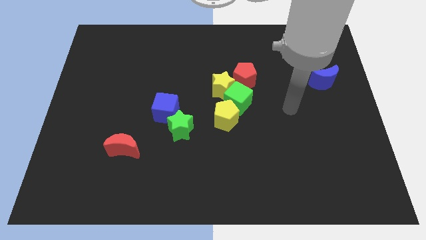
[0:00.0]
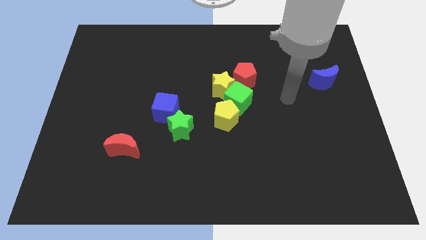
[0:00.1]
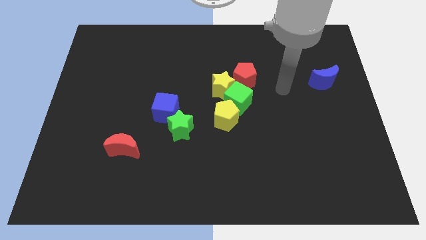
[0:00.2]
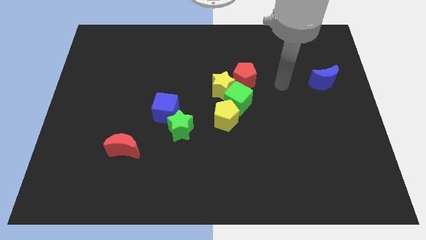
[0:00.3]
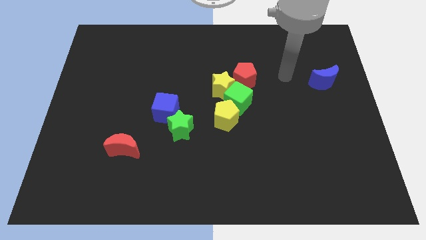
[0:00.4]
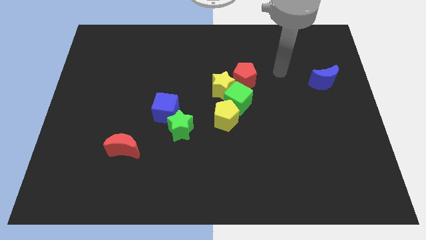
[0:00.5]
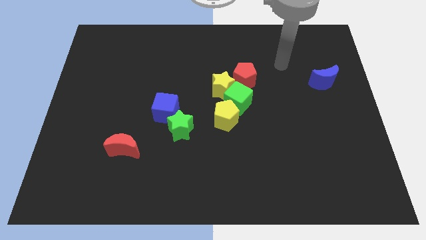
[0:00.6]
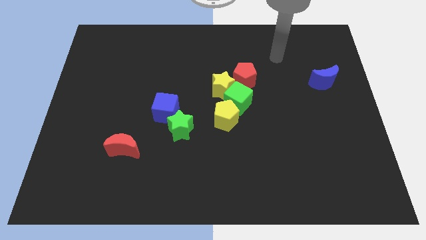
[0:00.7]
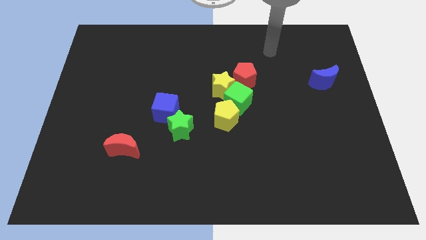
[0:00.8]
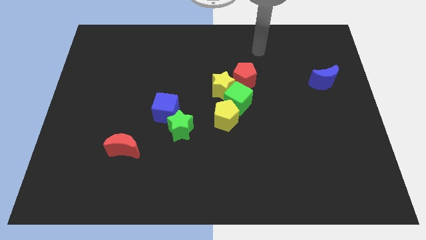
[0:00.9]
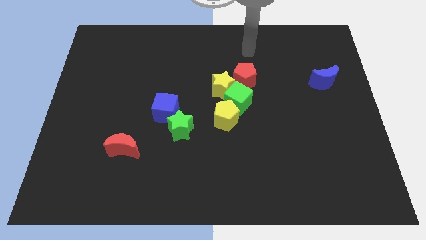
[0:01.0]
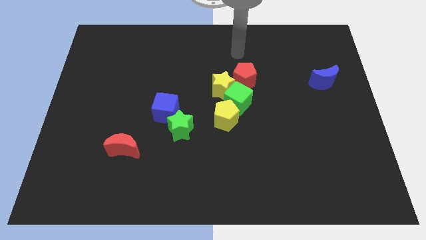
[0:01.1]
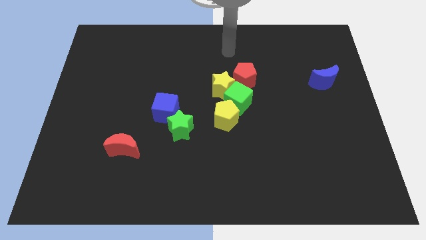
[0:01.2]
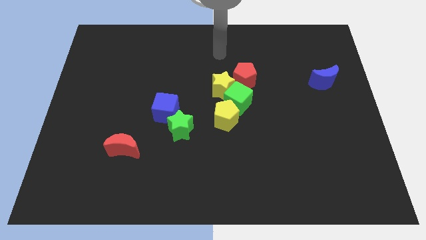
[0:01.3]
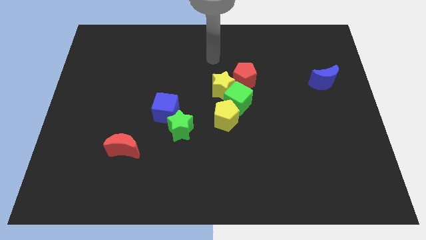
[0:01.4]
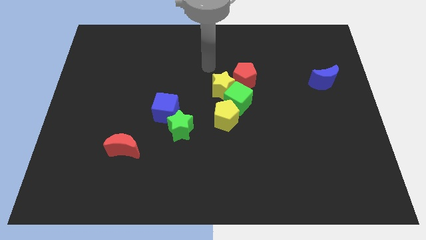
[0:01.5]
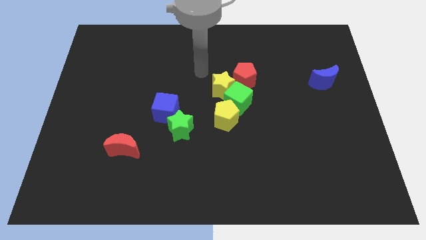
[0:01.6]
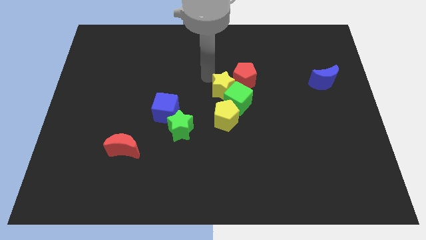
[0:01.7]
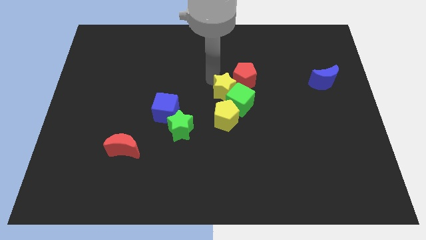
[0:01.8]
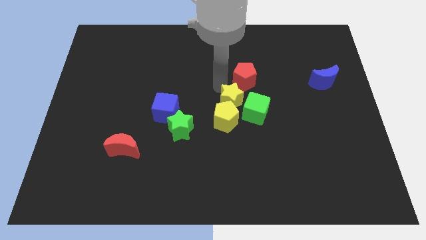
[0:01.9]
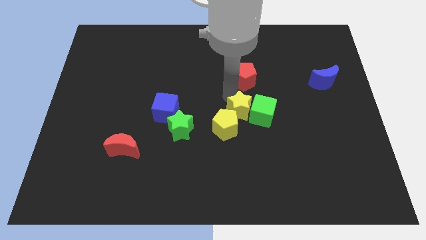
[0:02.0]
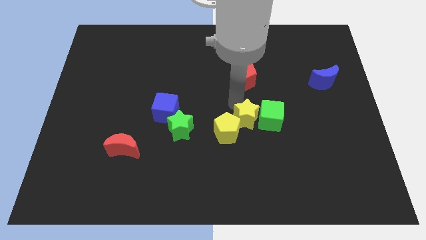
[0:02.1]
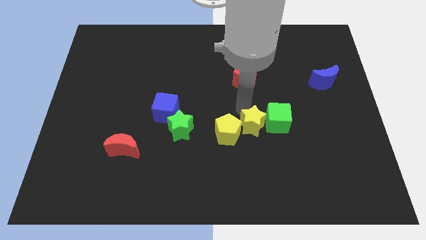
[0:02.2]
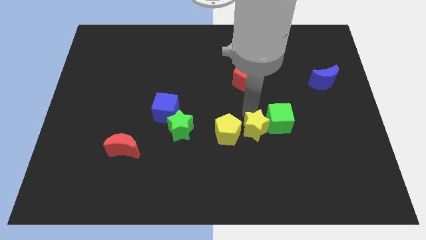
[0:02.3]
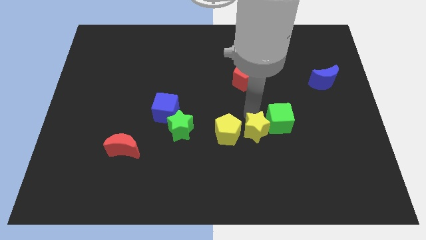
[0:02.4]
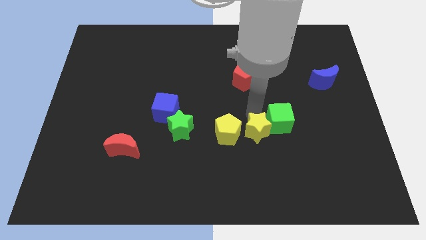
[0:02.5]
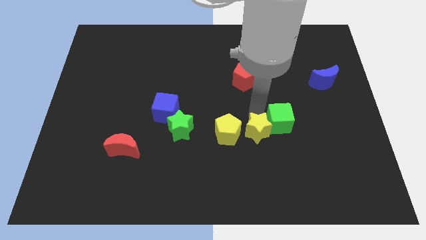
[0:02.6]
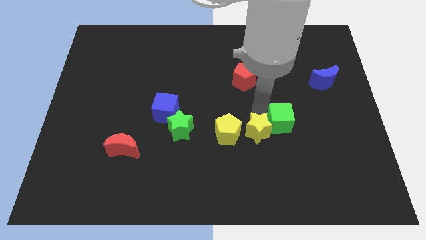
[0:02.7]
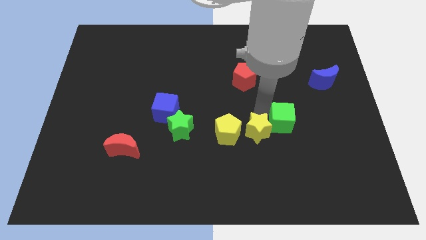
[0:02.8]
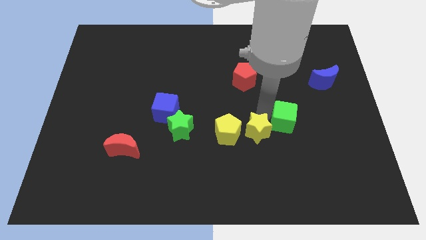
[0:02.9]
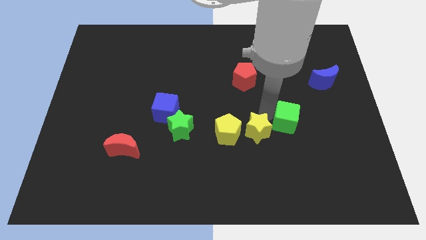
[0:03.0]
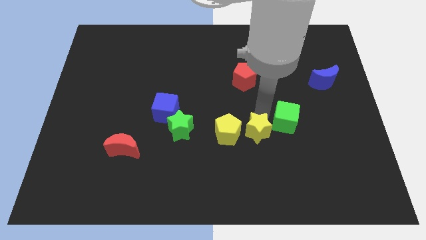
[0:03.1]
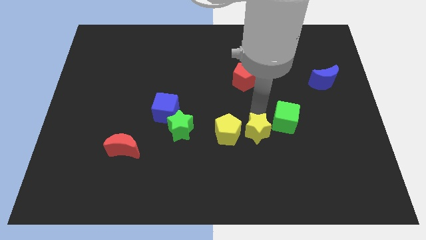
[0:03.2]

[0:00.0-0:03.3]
separate the green cube from the yellow star, yellow pentagon, and red pentagon

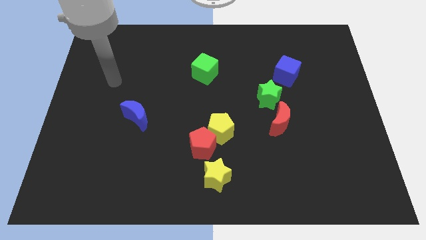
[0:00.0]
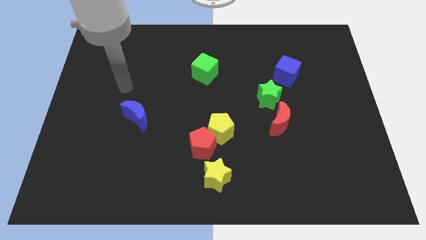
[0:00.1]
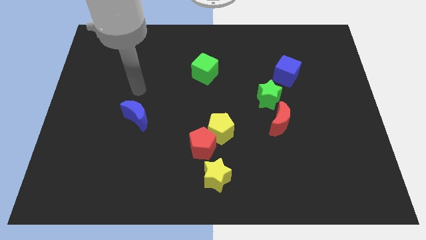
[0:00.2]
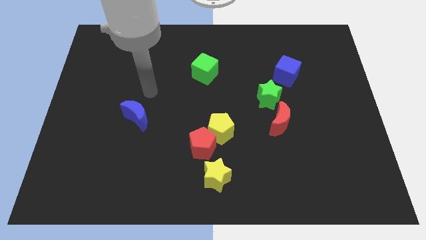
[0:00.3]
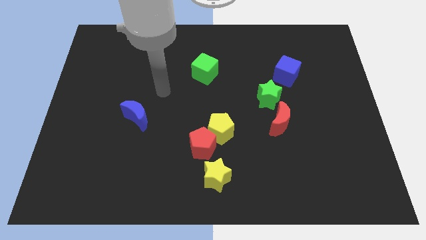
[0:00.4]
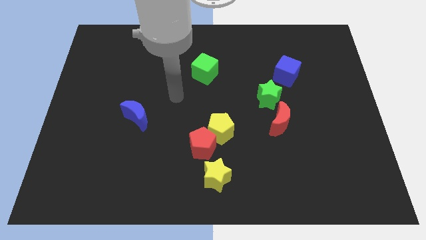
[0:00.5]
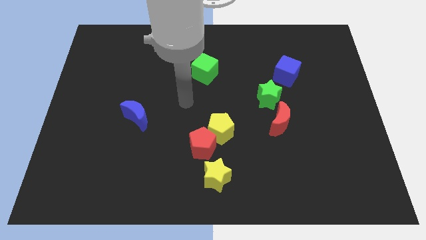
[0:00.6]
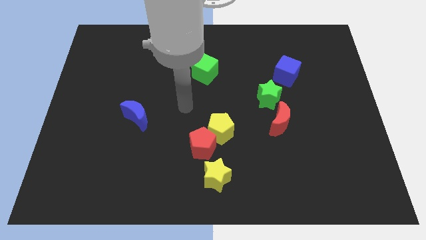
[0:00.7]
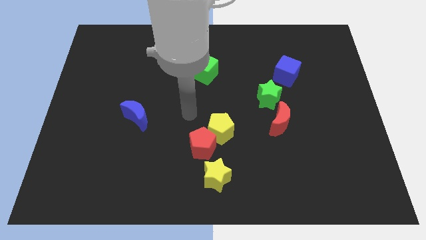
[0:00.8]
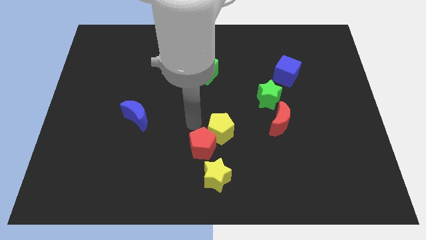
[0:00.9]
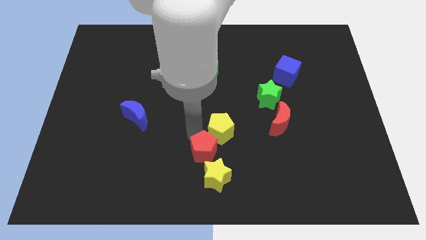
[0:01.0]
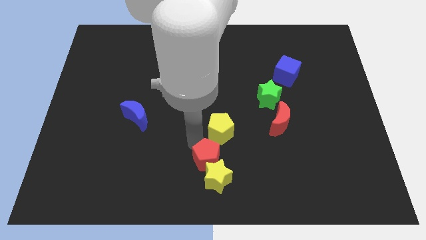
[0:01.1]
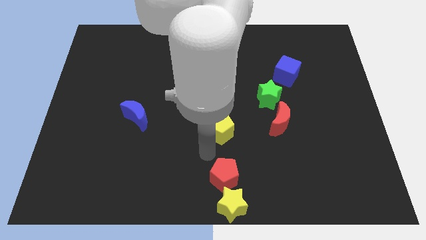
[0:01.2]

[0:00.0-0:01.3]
move the yellow pentagon away from the red pentagon

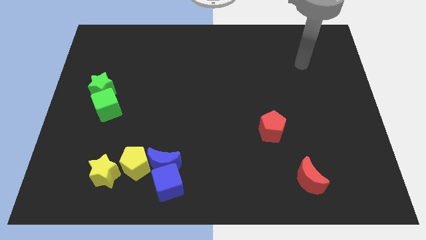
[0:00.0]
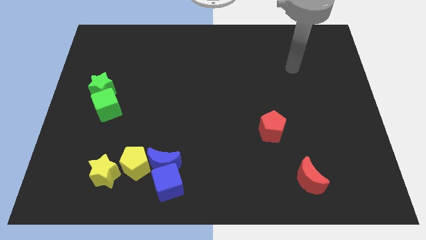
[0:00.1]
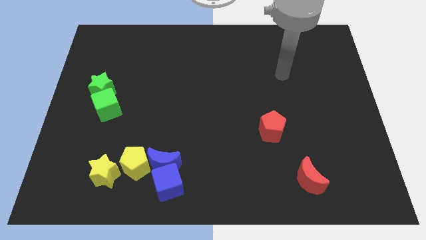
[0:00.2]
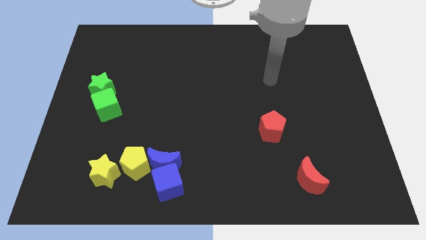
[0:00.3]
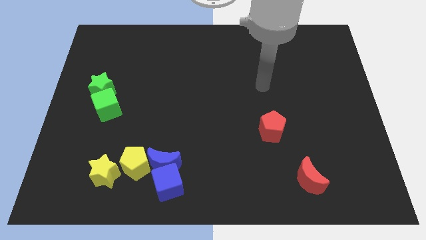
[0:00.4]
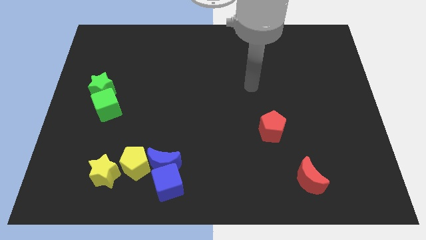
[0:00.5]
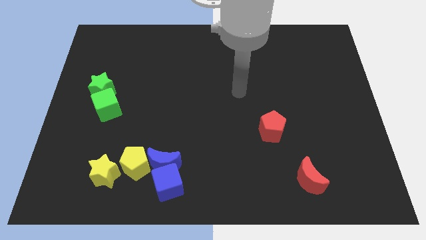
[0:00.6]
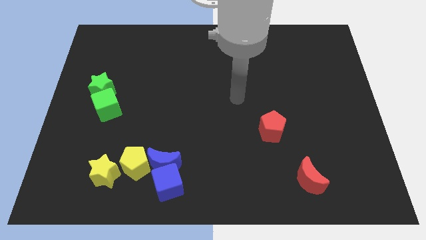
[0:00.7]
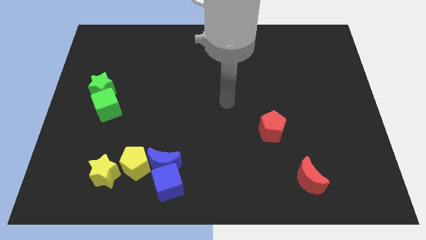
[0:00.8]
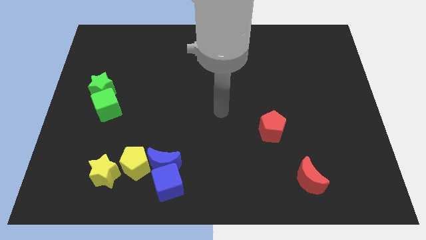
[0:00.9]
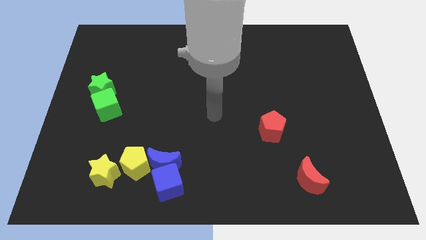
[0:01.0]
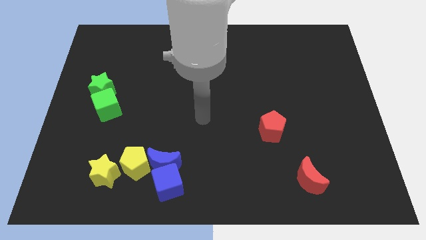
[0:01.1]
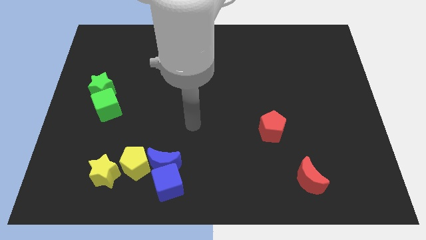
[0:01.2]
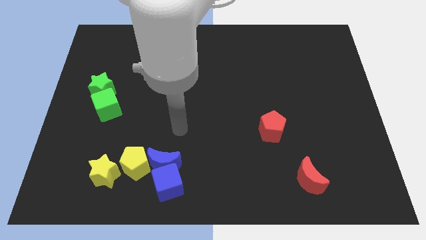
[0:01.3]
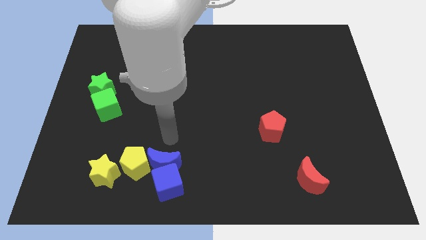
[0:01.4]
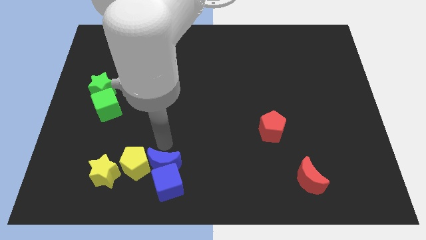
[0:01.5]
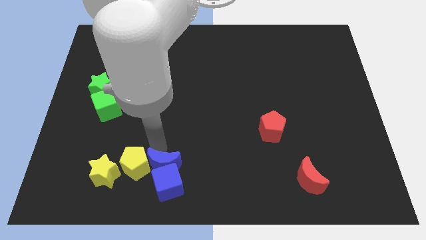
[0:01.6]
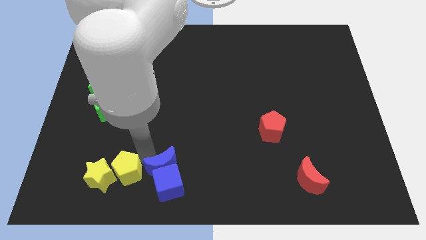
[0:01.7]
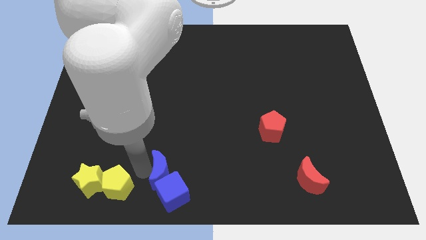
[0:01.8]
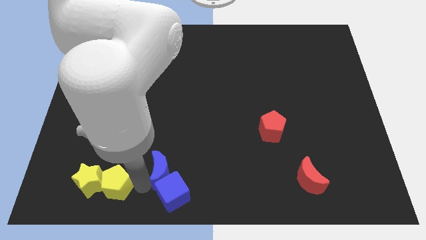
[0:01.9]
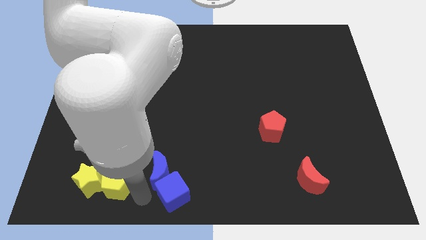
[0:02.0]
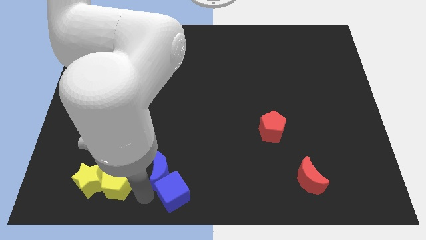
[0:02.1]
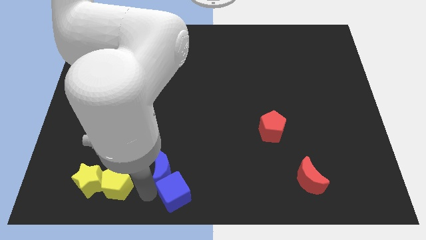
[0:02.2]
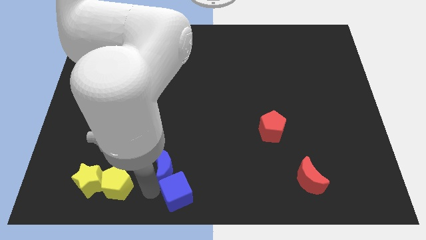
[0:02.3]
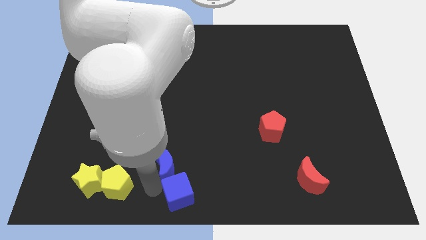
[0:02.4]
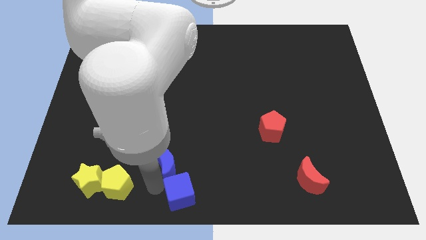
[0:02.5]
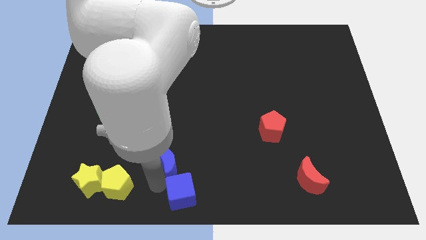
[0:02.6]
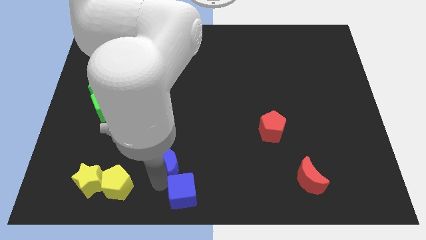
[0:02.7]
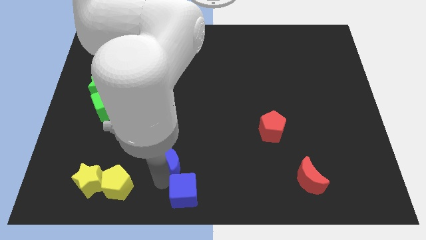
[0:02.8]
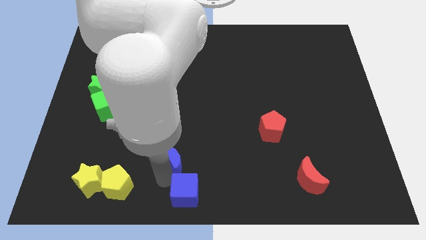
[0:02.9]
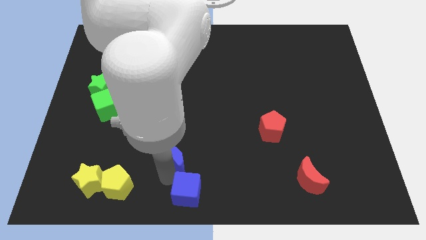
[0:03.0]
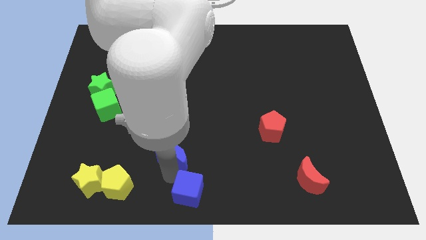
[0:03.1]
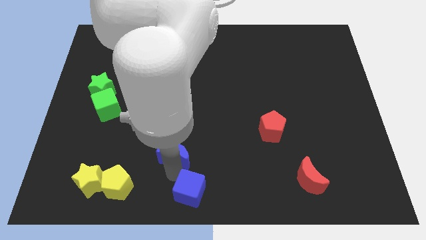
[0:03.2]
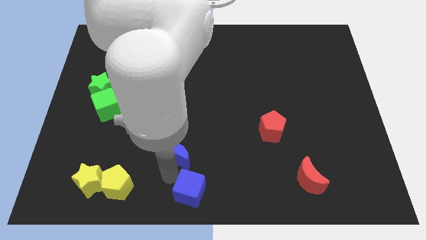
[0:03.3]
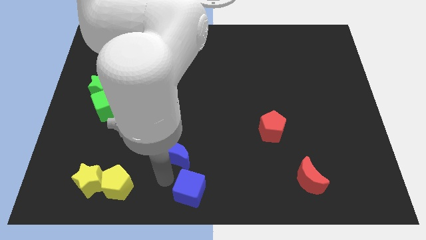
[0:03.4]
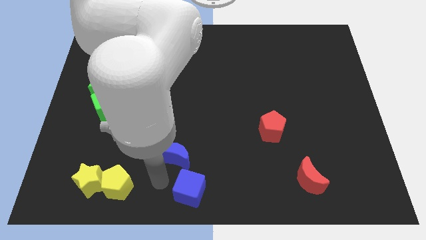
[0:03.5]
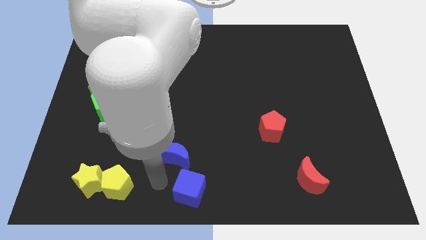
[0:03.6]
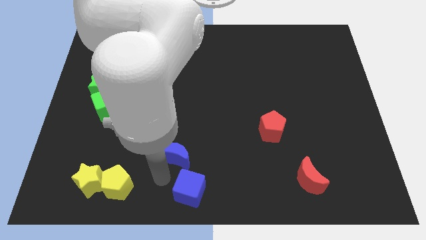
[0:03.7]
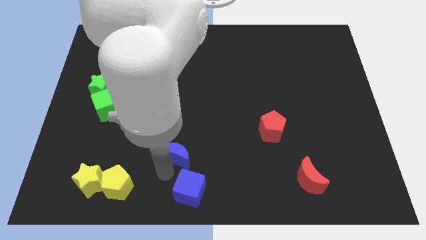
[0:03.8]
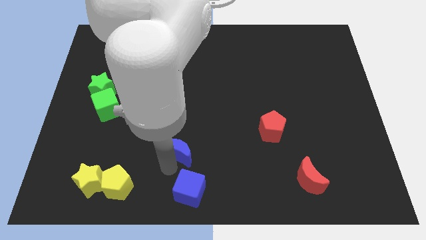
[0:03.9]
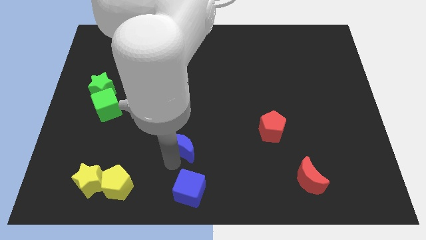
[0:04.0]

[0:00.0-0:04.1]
move the blue moon away from the blue cube and yellow pentagon

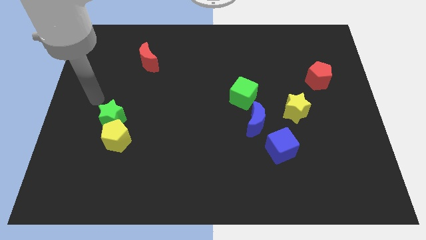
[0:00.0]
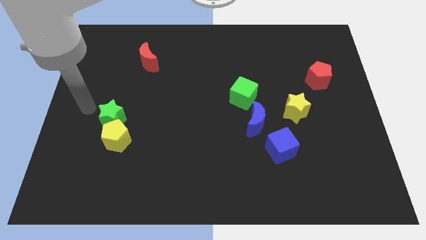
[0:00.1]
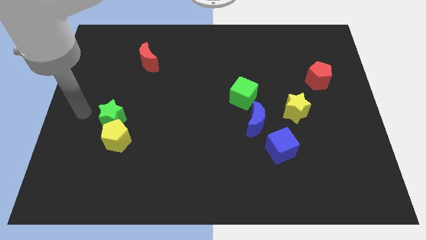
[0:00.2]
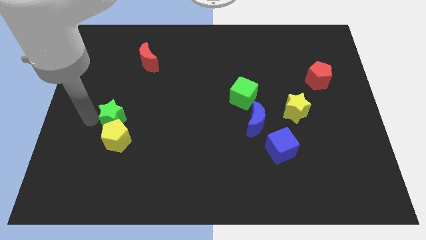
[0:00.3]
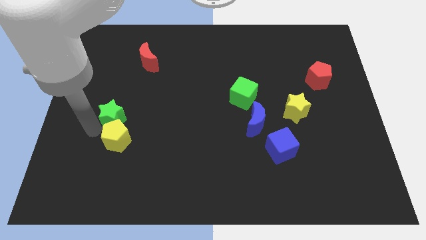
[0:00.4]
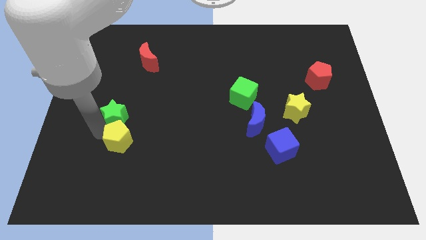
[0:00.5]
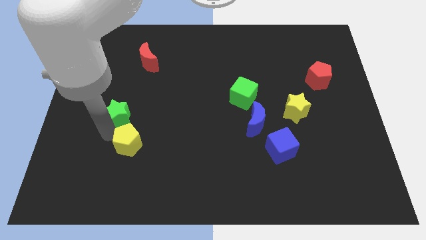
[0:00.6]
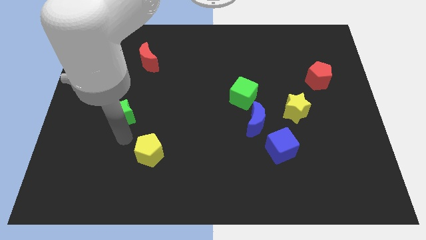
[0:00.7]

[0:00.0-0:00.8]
pull the green star apart from the yellow pentagon
